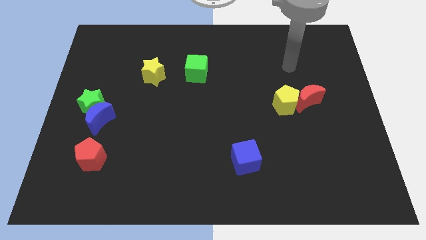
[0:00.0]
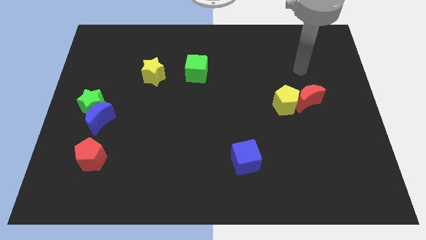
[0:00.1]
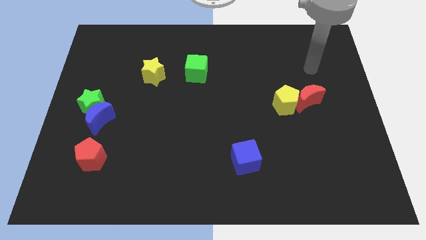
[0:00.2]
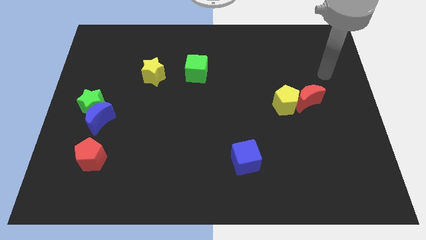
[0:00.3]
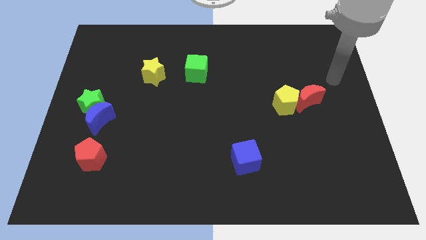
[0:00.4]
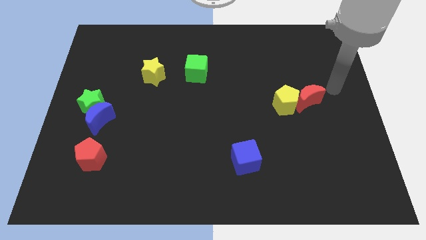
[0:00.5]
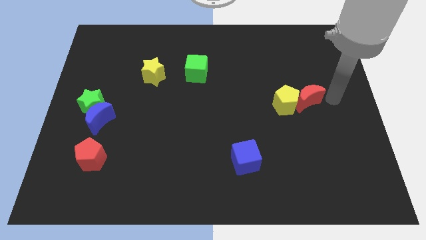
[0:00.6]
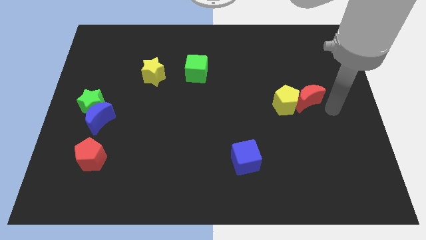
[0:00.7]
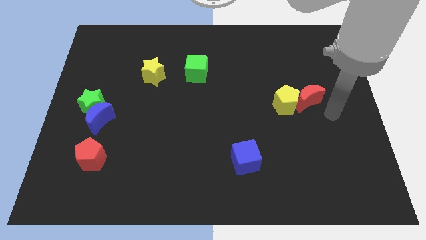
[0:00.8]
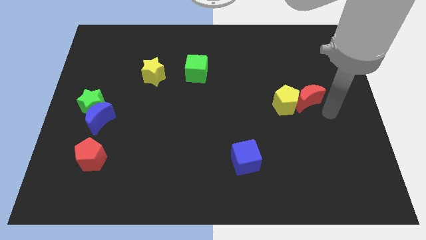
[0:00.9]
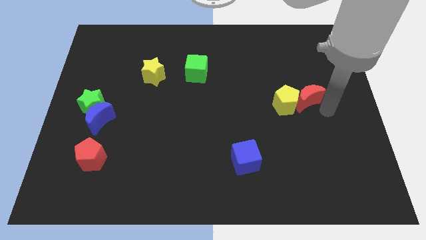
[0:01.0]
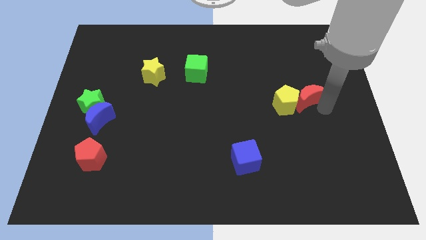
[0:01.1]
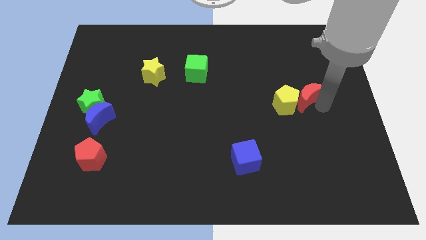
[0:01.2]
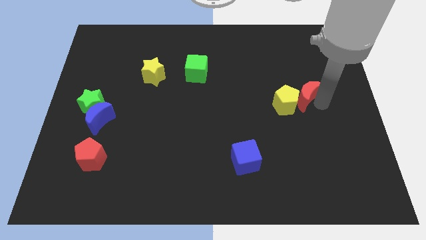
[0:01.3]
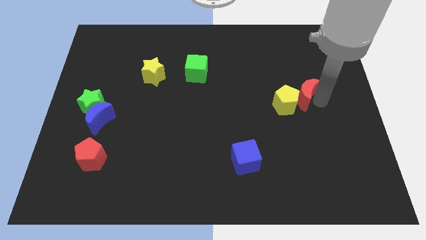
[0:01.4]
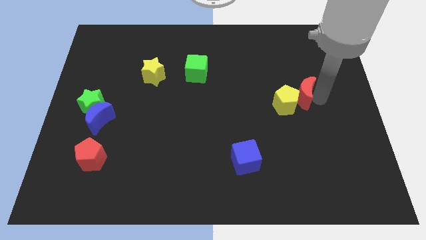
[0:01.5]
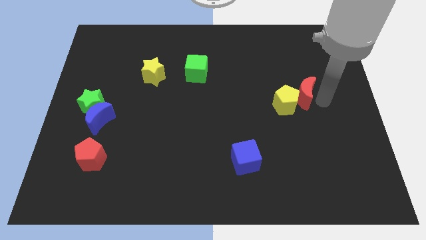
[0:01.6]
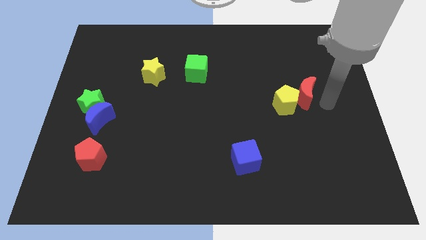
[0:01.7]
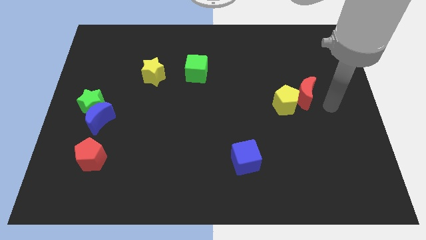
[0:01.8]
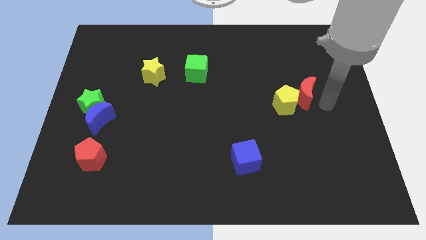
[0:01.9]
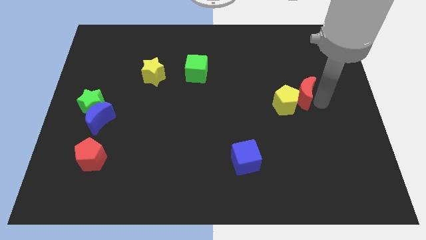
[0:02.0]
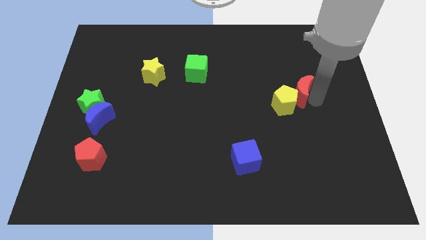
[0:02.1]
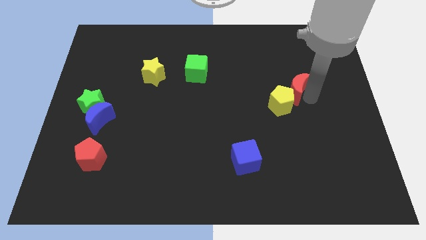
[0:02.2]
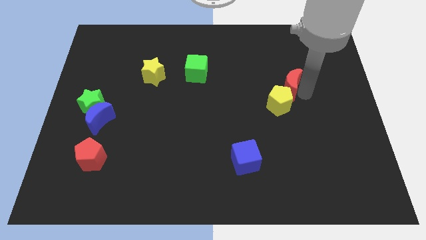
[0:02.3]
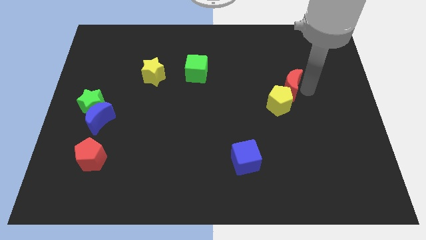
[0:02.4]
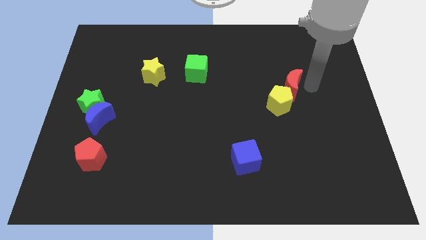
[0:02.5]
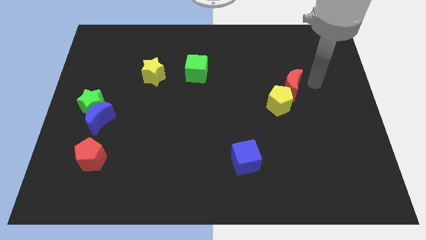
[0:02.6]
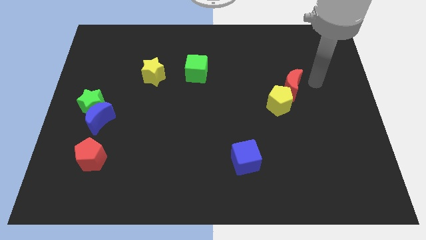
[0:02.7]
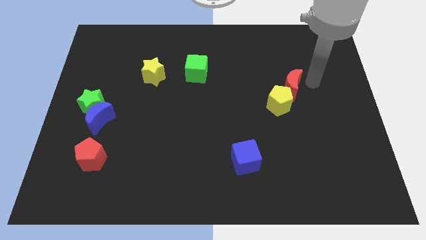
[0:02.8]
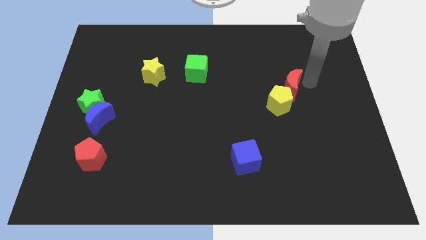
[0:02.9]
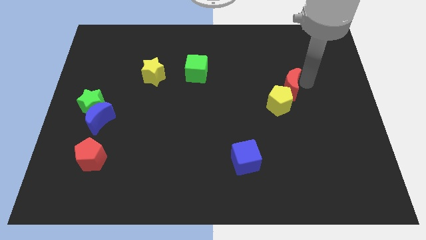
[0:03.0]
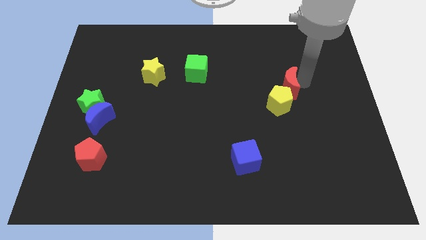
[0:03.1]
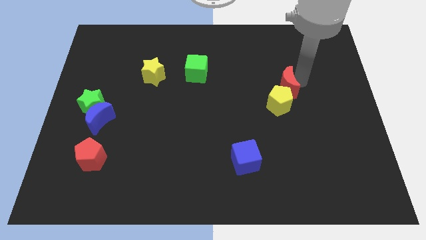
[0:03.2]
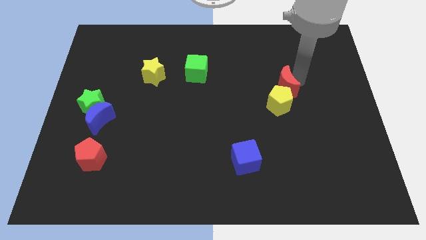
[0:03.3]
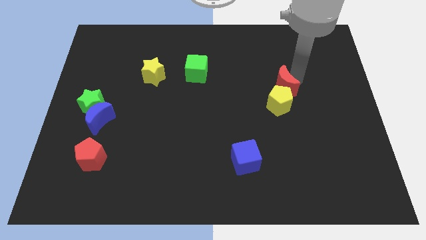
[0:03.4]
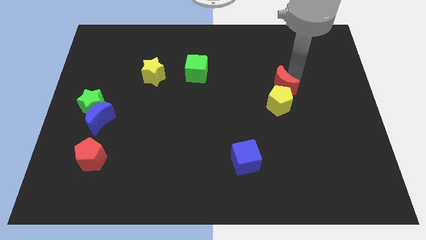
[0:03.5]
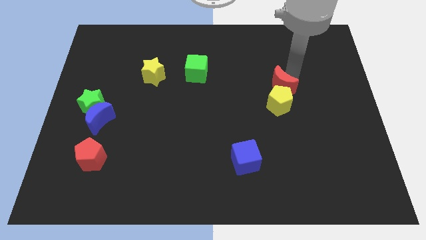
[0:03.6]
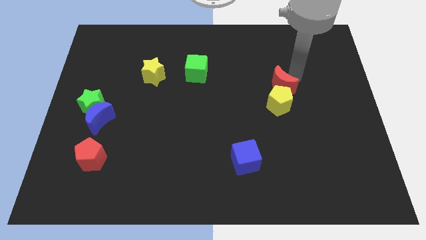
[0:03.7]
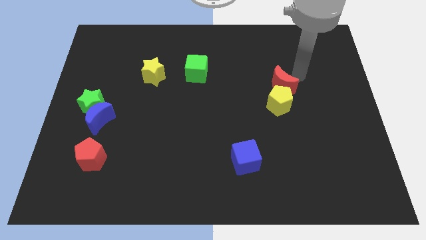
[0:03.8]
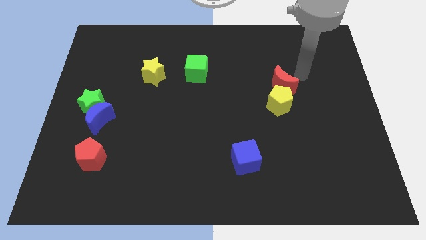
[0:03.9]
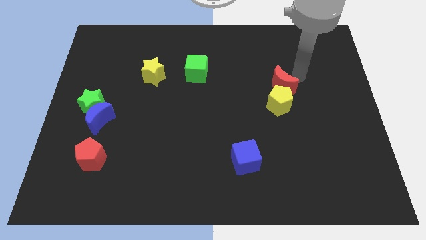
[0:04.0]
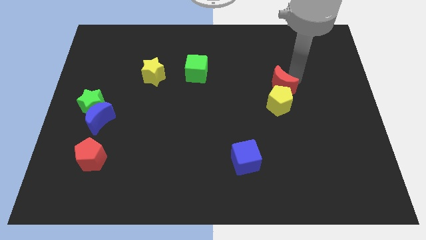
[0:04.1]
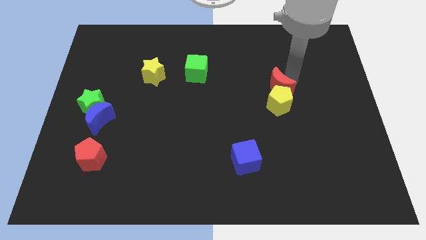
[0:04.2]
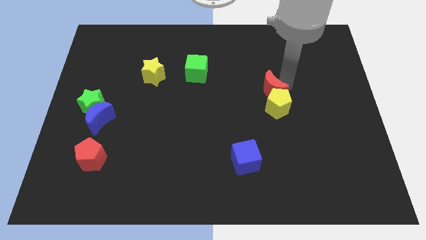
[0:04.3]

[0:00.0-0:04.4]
slightly slide the red moon left

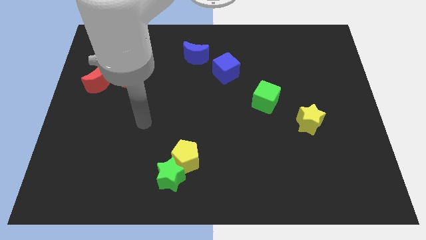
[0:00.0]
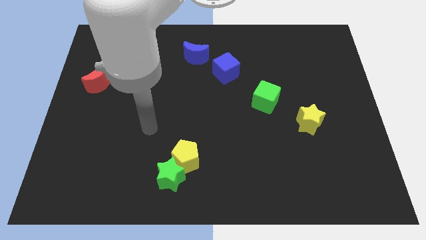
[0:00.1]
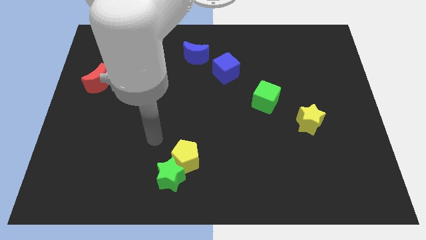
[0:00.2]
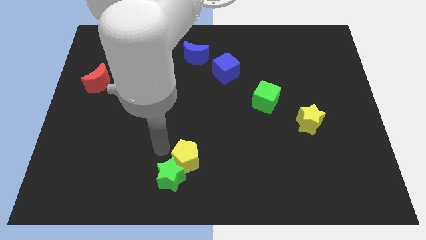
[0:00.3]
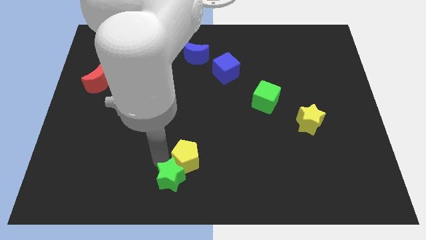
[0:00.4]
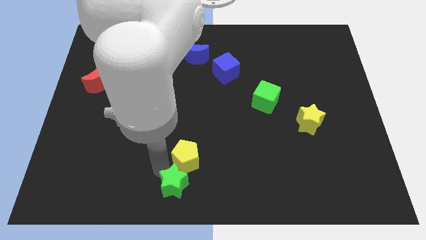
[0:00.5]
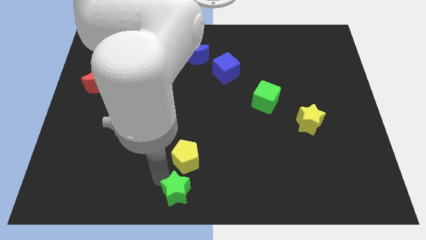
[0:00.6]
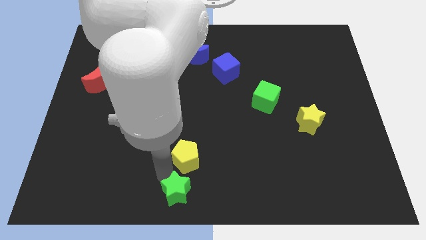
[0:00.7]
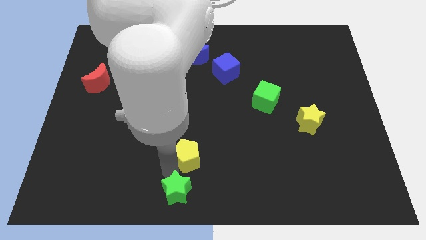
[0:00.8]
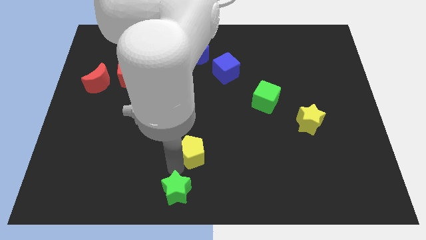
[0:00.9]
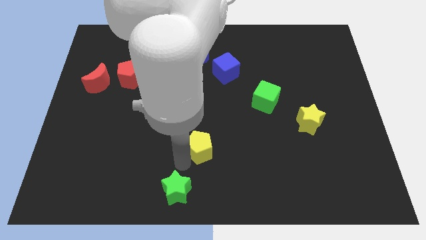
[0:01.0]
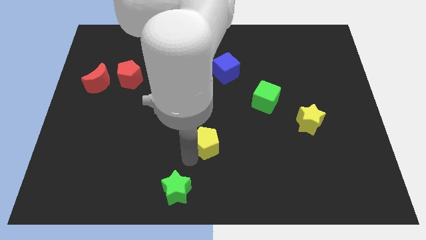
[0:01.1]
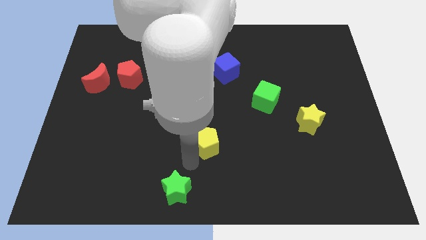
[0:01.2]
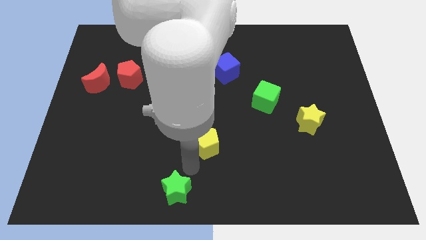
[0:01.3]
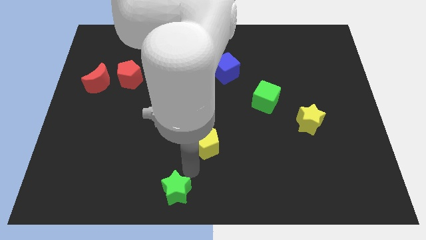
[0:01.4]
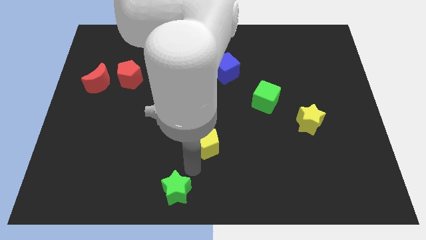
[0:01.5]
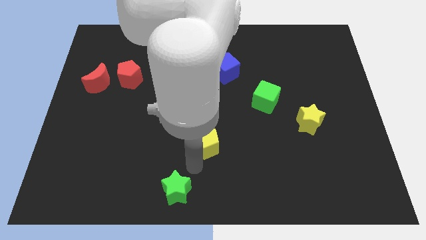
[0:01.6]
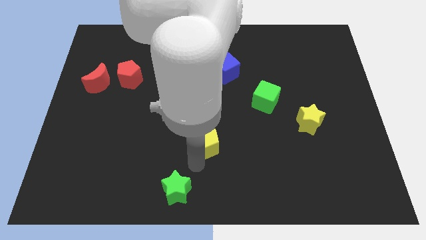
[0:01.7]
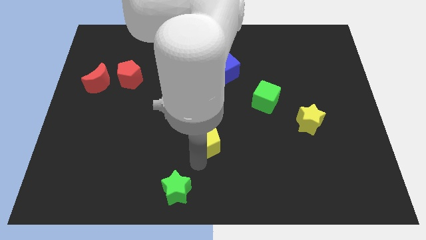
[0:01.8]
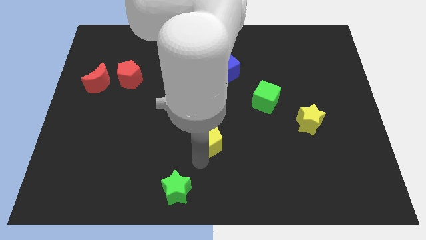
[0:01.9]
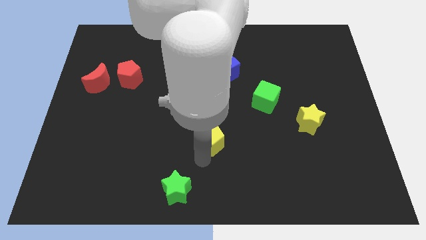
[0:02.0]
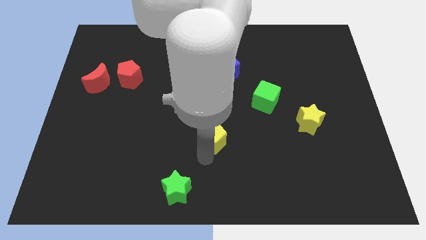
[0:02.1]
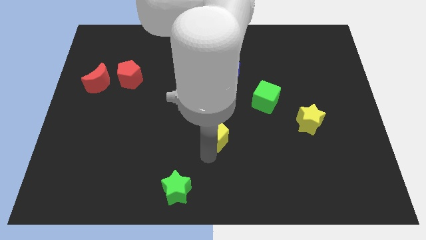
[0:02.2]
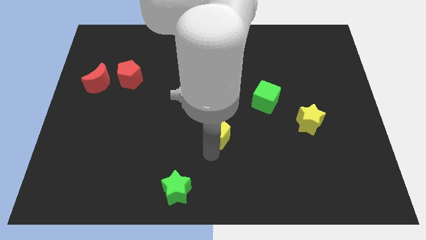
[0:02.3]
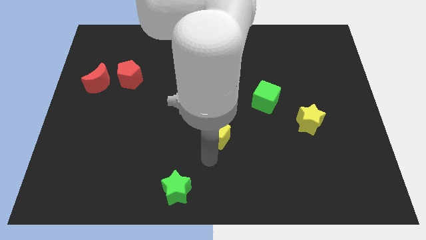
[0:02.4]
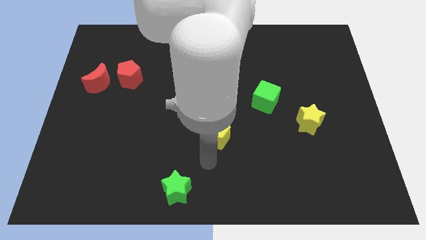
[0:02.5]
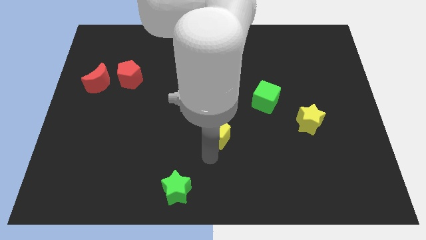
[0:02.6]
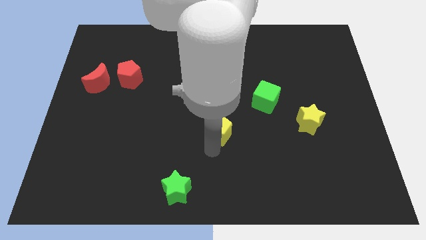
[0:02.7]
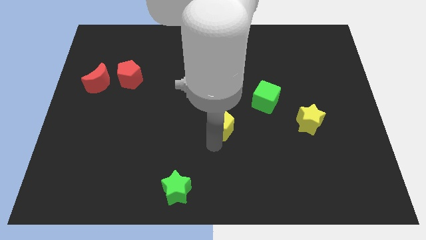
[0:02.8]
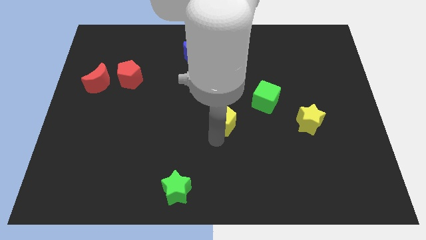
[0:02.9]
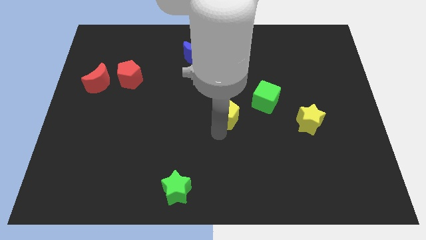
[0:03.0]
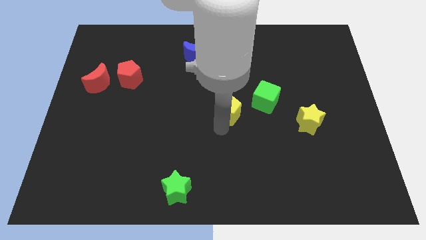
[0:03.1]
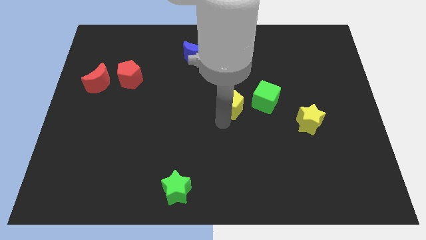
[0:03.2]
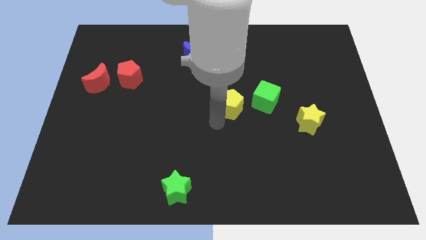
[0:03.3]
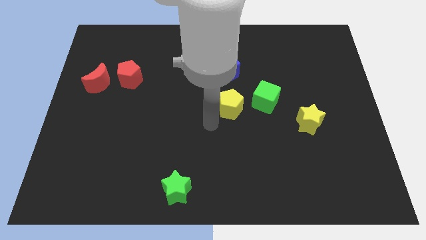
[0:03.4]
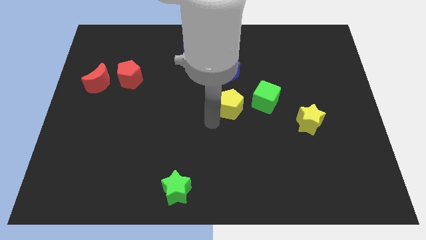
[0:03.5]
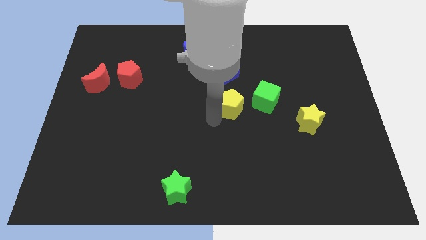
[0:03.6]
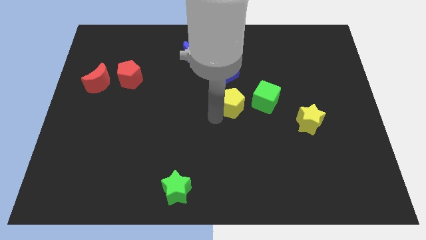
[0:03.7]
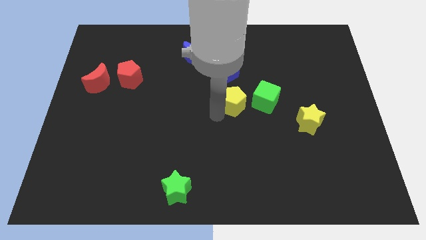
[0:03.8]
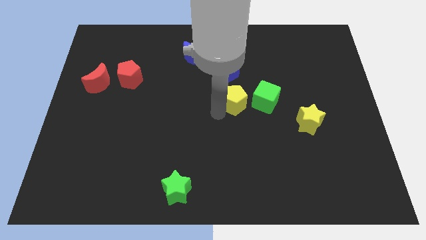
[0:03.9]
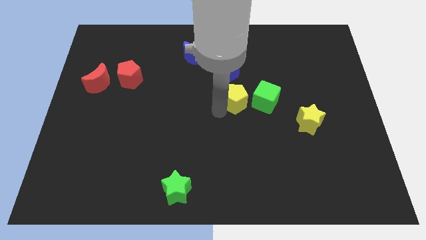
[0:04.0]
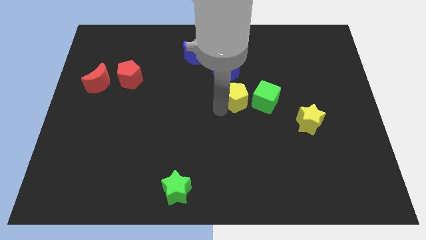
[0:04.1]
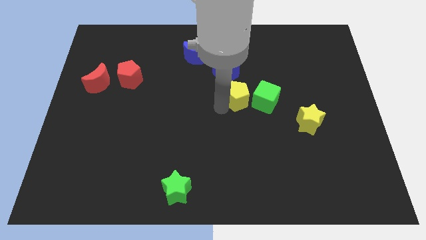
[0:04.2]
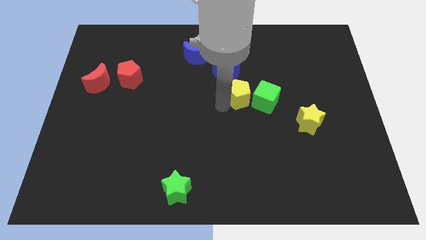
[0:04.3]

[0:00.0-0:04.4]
slide the yellow pentagon up and then to the right
